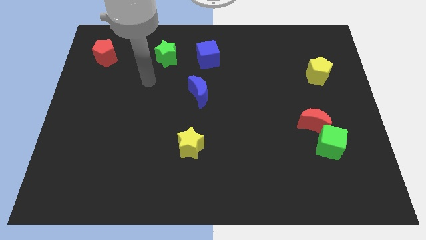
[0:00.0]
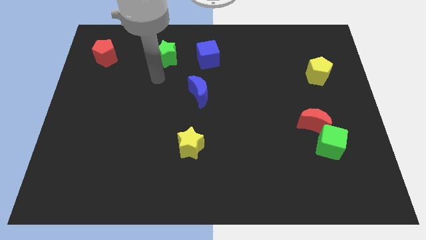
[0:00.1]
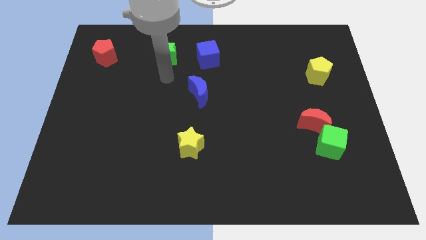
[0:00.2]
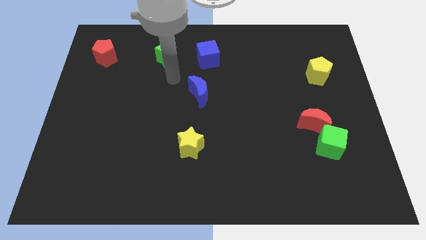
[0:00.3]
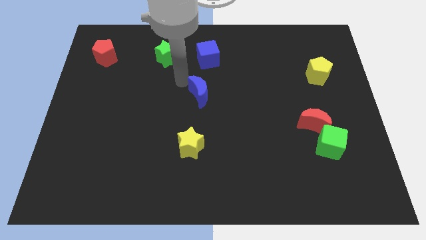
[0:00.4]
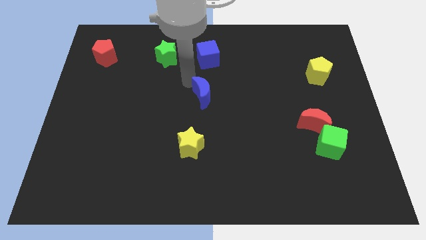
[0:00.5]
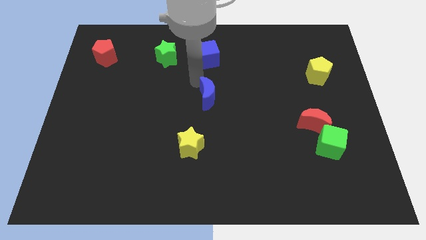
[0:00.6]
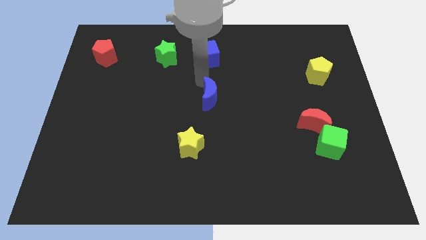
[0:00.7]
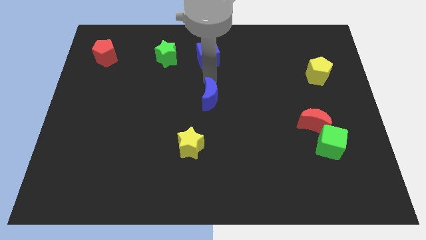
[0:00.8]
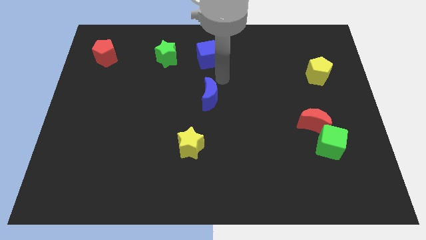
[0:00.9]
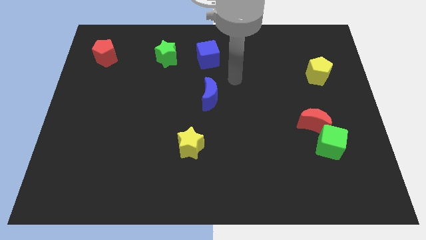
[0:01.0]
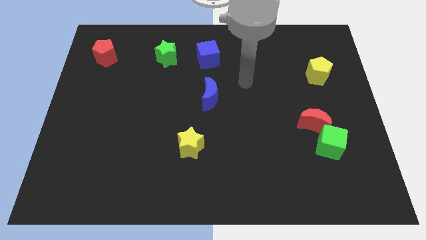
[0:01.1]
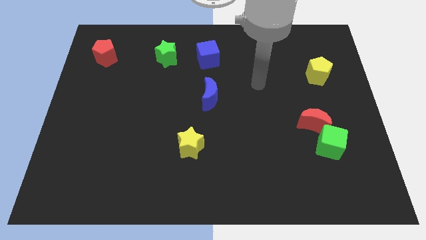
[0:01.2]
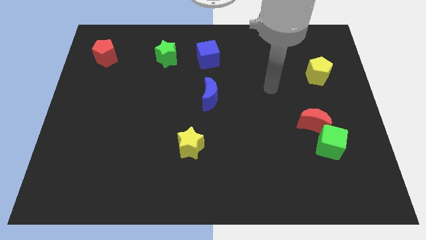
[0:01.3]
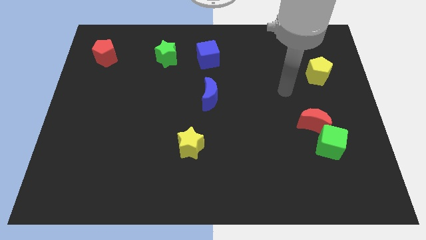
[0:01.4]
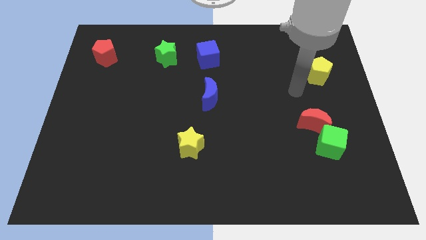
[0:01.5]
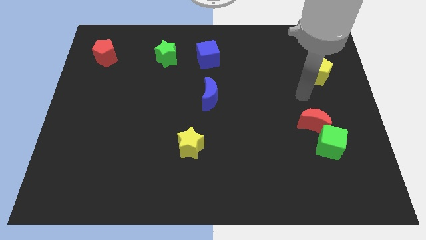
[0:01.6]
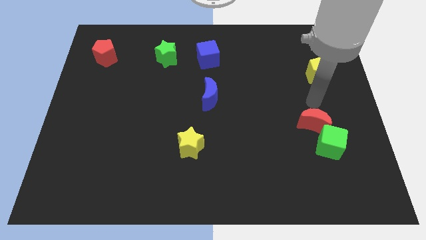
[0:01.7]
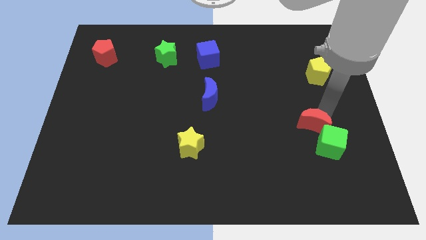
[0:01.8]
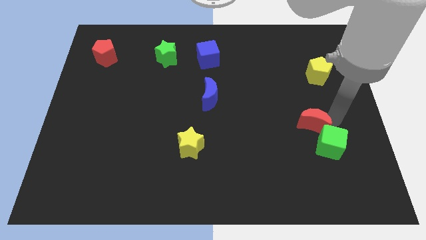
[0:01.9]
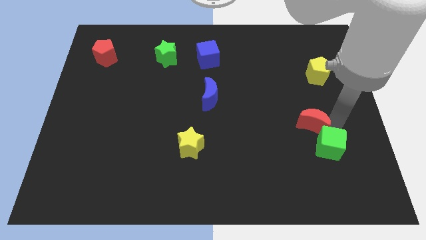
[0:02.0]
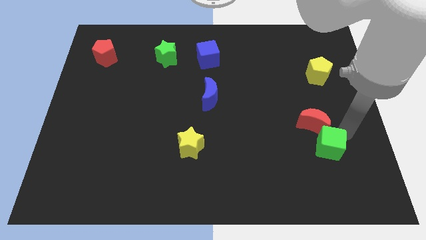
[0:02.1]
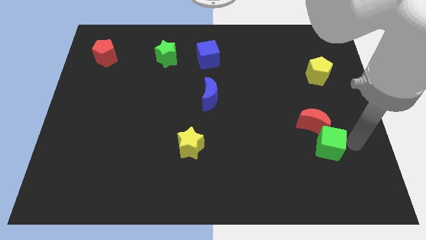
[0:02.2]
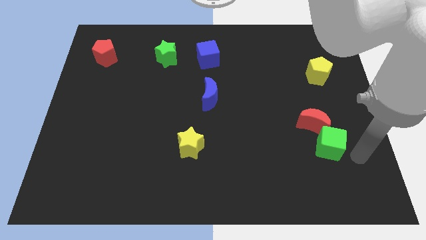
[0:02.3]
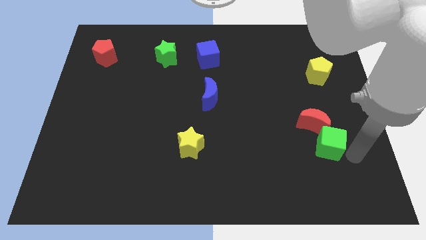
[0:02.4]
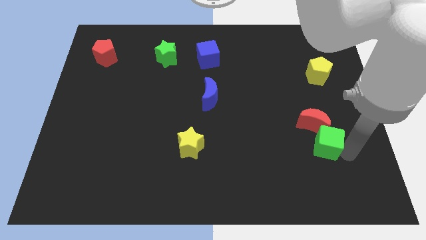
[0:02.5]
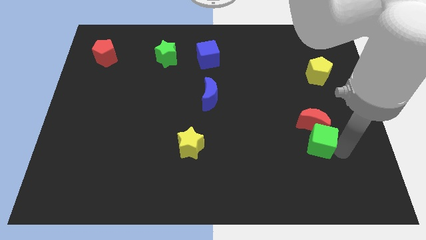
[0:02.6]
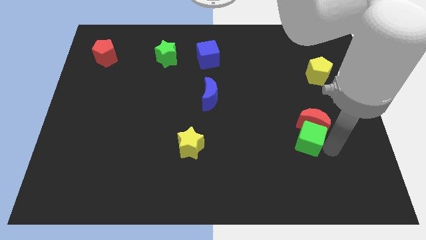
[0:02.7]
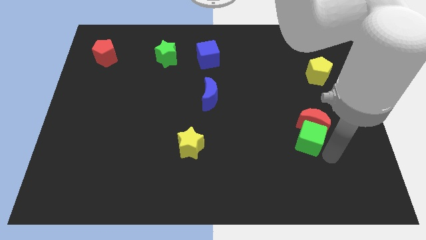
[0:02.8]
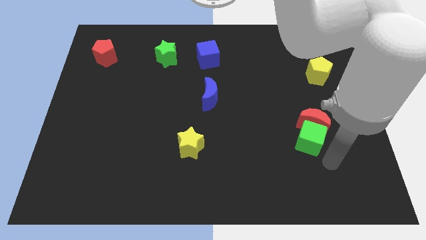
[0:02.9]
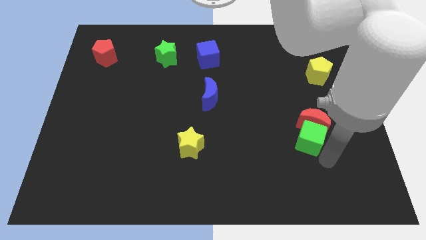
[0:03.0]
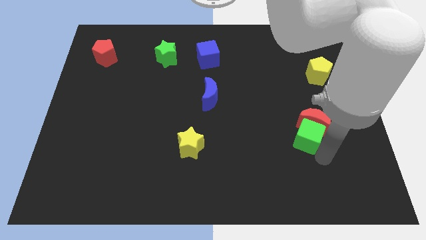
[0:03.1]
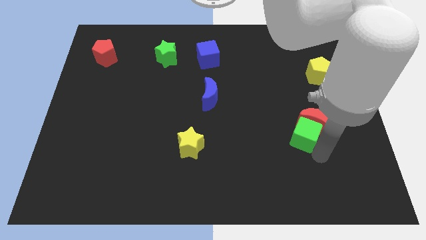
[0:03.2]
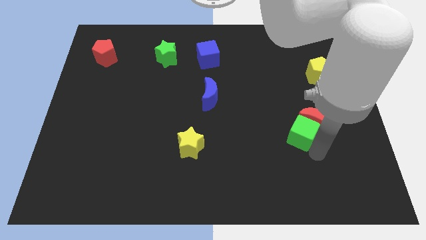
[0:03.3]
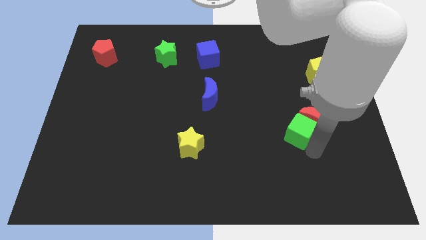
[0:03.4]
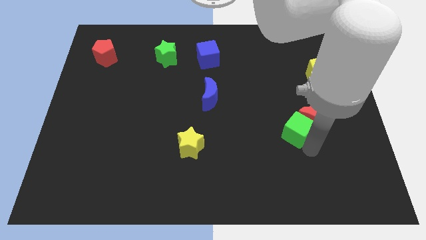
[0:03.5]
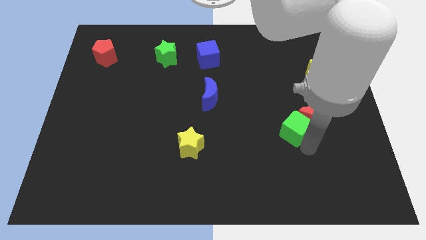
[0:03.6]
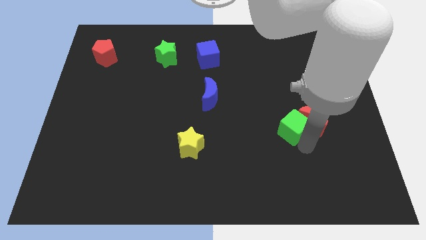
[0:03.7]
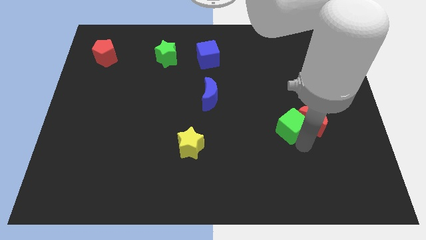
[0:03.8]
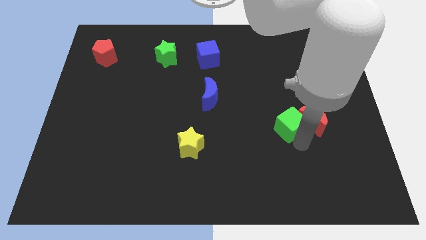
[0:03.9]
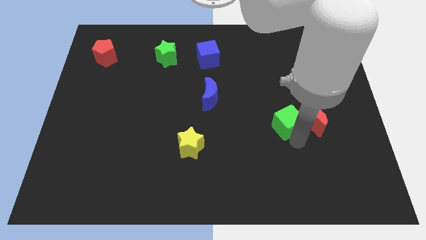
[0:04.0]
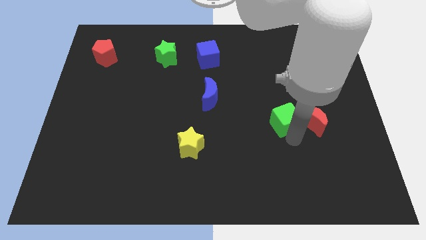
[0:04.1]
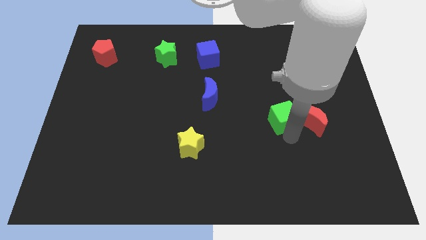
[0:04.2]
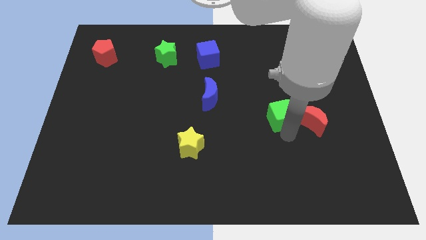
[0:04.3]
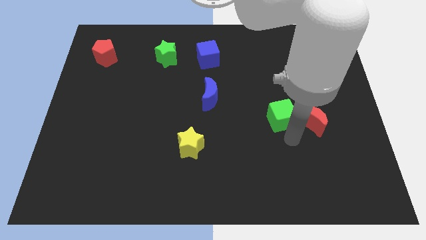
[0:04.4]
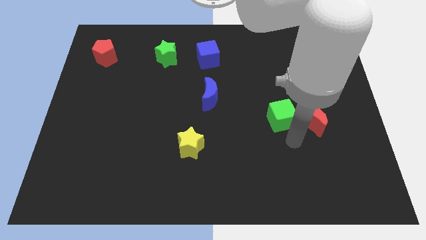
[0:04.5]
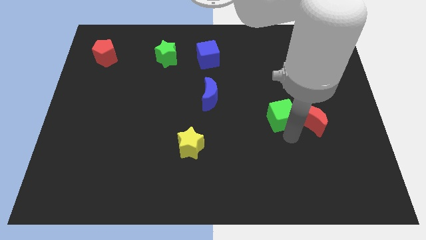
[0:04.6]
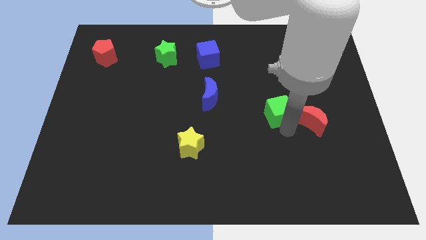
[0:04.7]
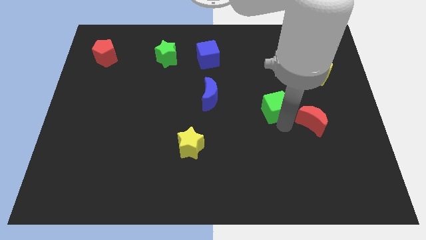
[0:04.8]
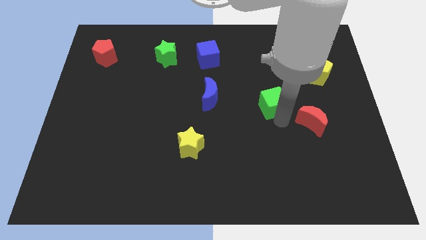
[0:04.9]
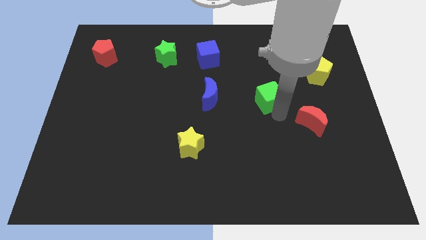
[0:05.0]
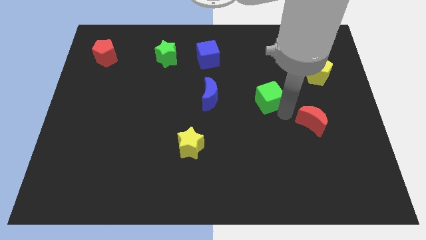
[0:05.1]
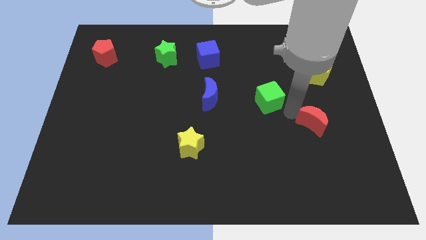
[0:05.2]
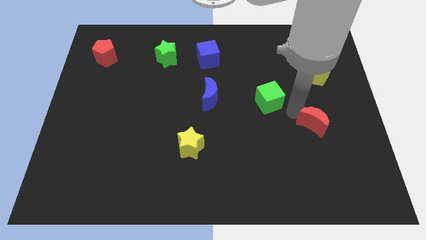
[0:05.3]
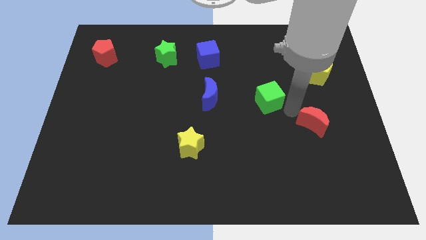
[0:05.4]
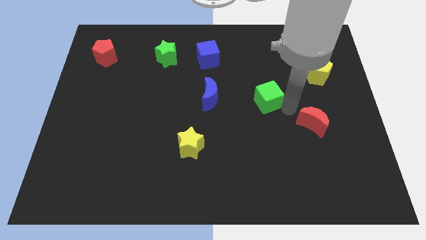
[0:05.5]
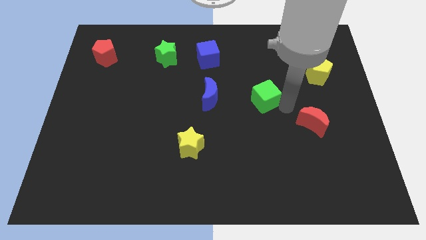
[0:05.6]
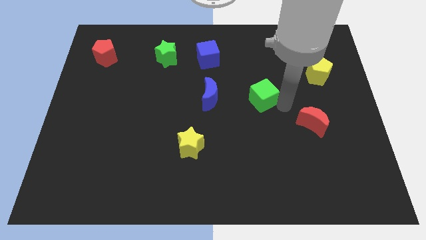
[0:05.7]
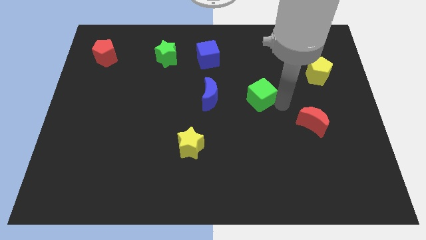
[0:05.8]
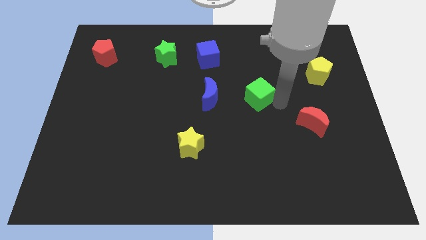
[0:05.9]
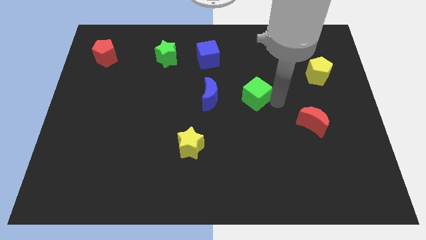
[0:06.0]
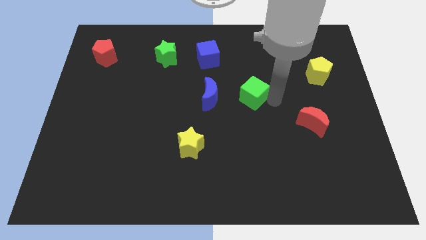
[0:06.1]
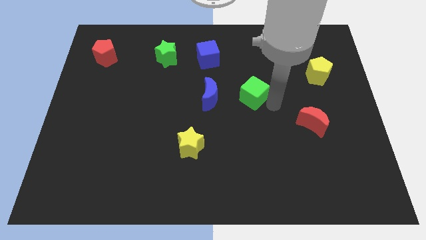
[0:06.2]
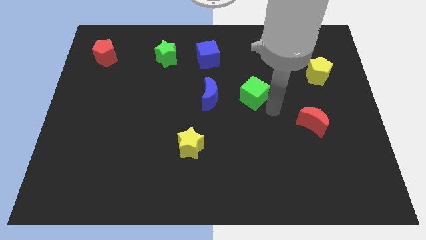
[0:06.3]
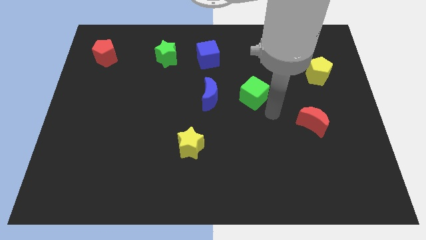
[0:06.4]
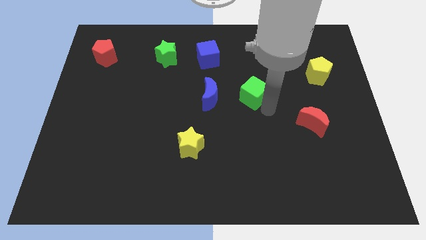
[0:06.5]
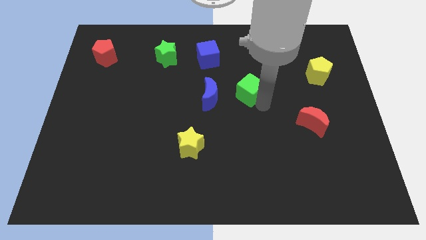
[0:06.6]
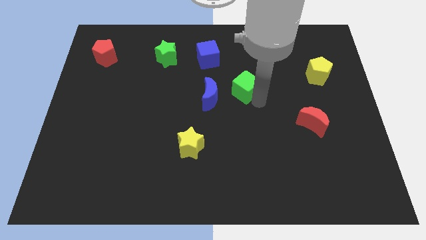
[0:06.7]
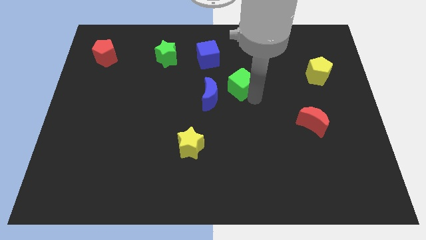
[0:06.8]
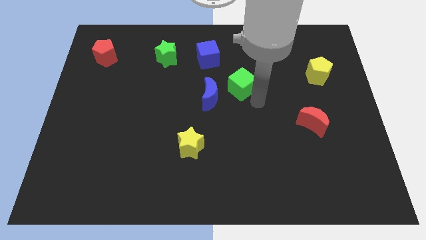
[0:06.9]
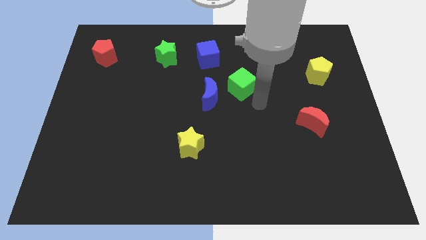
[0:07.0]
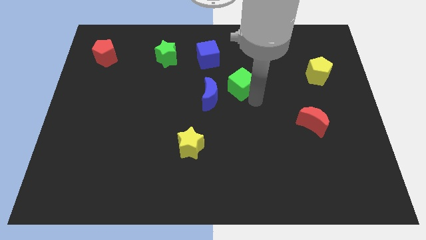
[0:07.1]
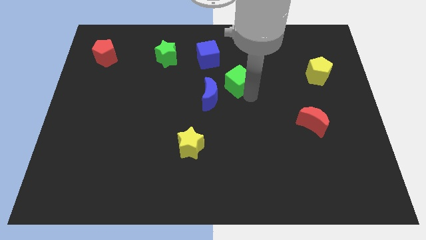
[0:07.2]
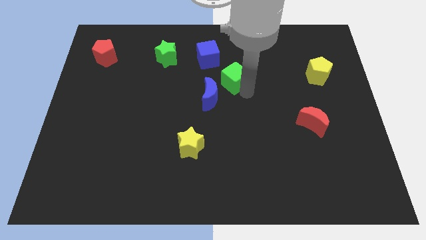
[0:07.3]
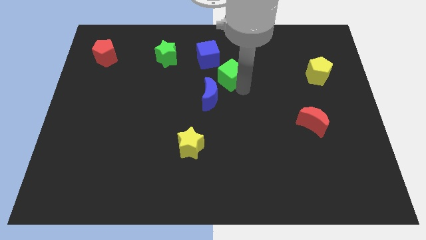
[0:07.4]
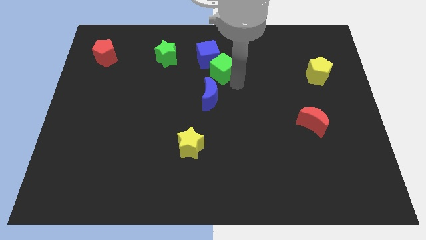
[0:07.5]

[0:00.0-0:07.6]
put the green cube close to the blue cube
